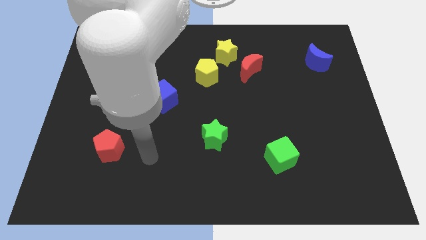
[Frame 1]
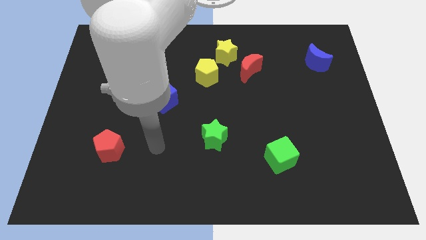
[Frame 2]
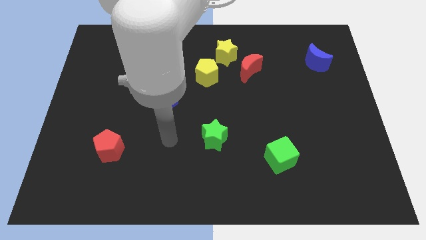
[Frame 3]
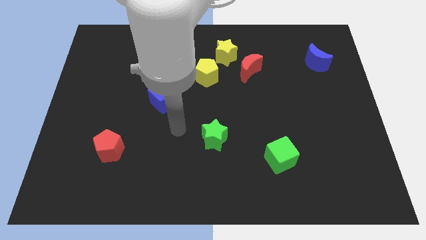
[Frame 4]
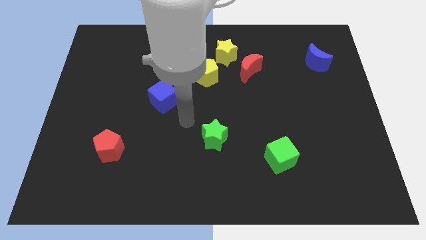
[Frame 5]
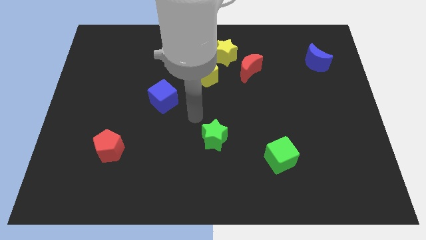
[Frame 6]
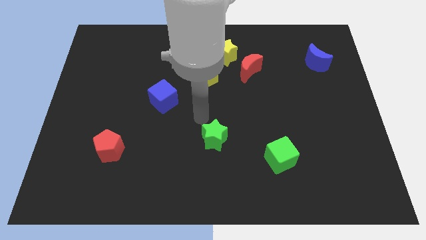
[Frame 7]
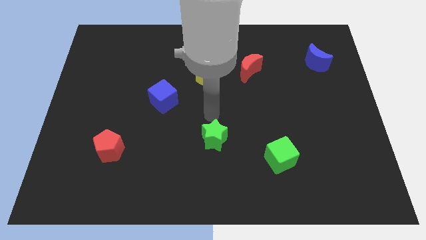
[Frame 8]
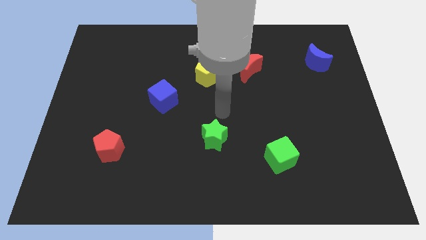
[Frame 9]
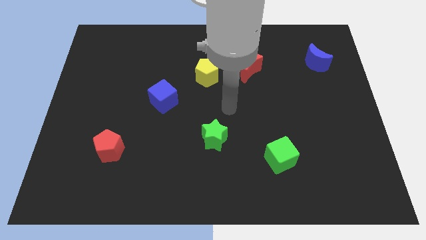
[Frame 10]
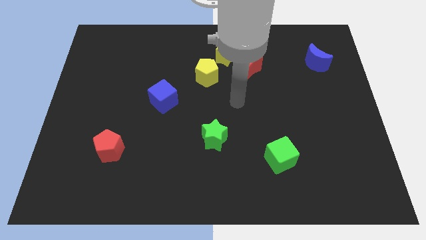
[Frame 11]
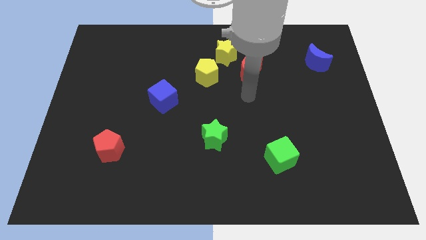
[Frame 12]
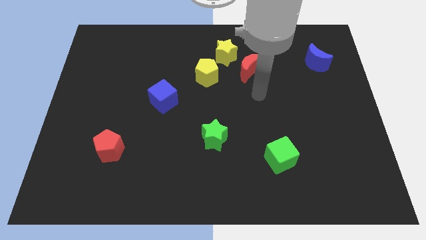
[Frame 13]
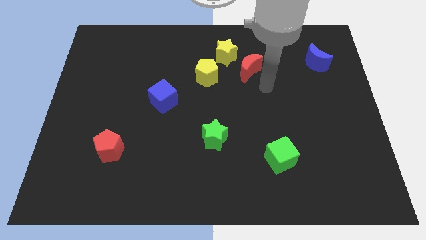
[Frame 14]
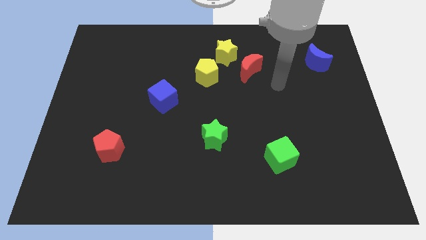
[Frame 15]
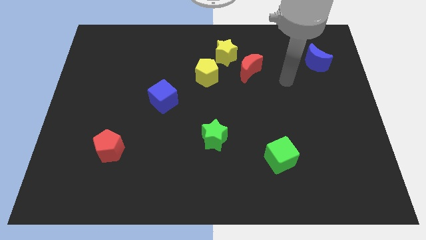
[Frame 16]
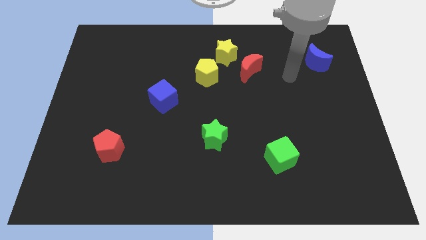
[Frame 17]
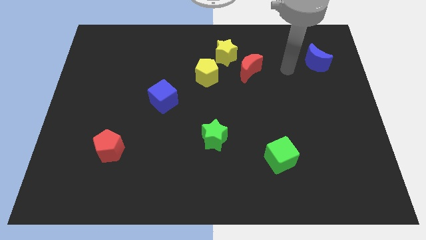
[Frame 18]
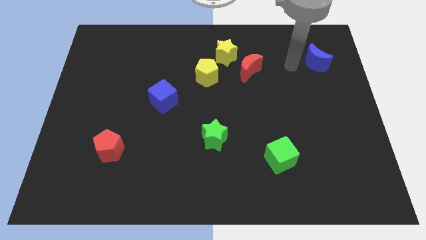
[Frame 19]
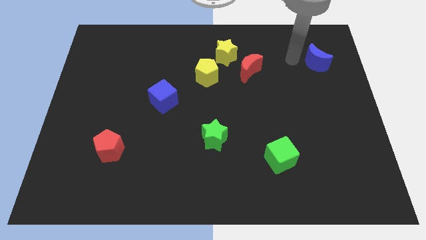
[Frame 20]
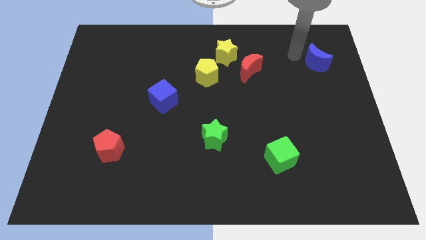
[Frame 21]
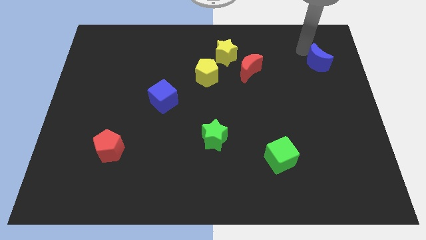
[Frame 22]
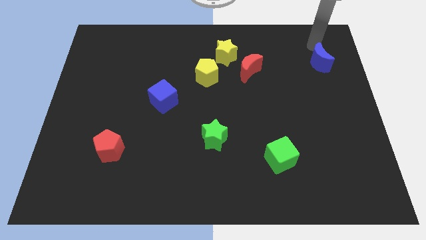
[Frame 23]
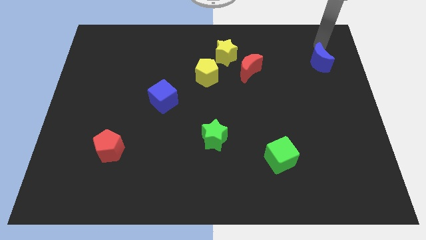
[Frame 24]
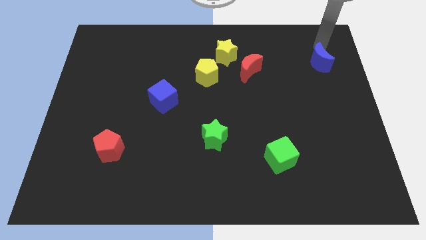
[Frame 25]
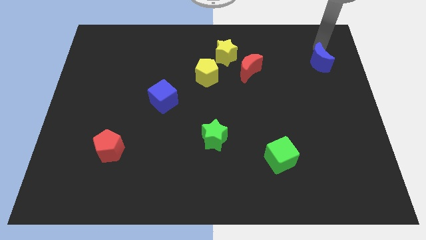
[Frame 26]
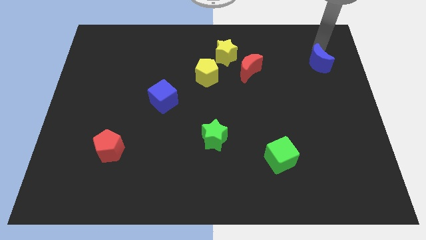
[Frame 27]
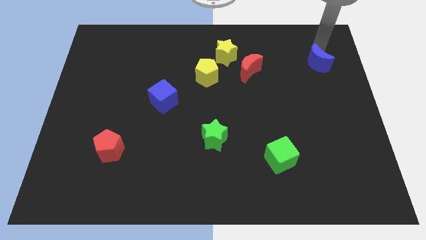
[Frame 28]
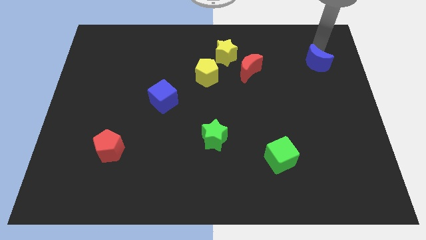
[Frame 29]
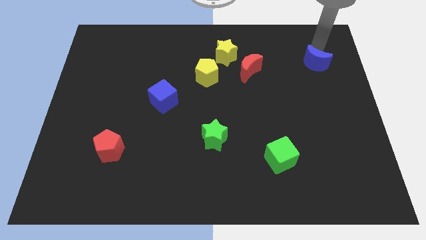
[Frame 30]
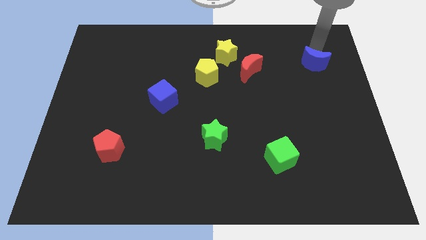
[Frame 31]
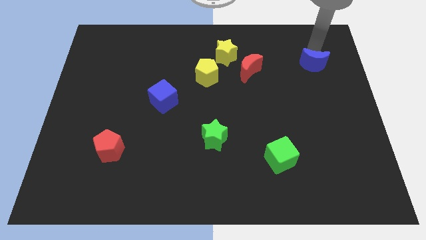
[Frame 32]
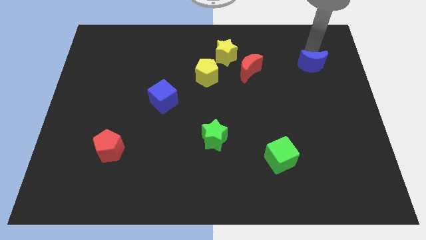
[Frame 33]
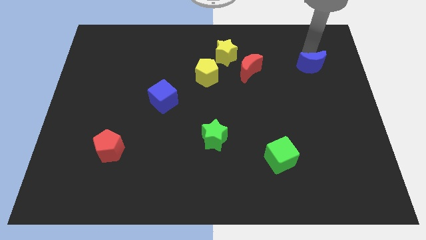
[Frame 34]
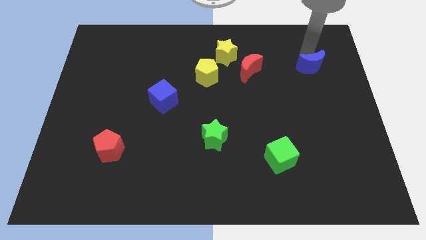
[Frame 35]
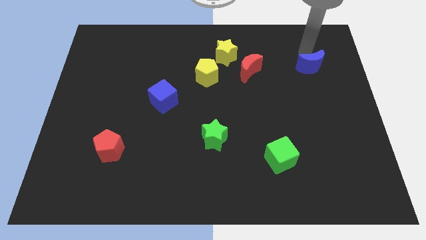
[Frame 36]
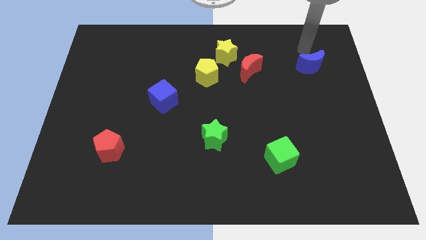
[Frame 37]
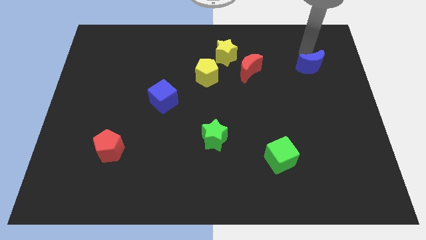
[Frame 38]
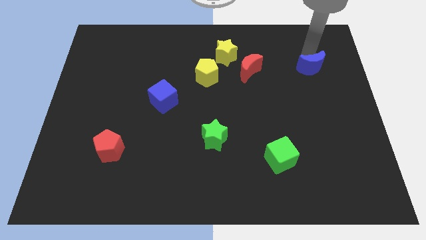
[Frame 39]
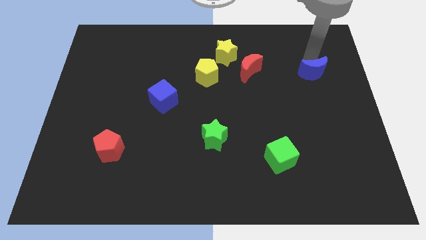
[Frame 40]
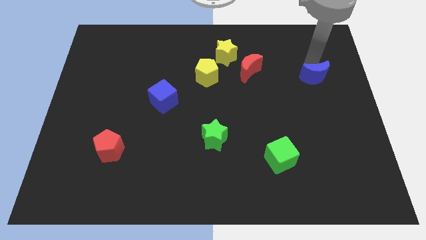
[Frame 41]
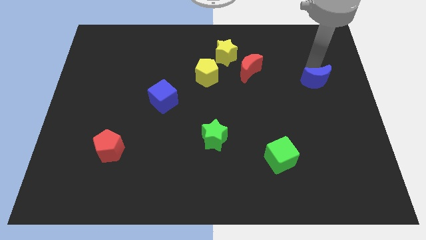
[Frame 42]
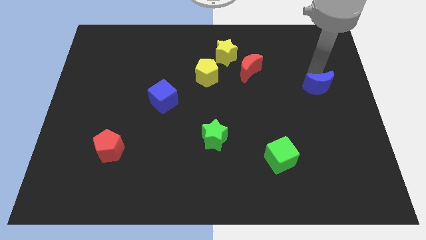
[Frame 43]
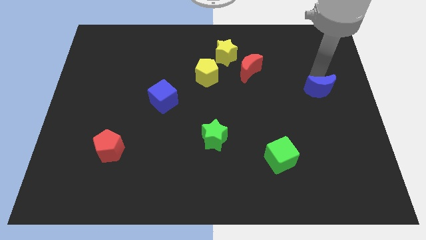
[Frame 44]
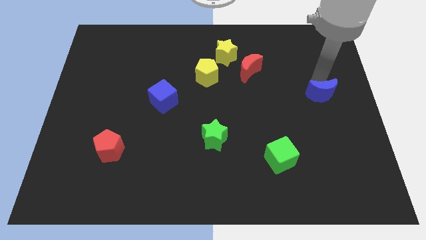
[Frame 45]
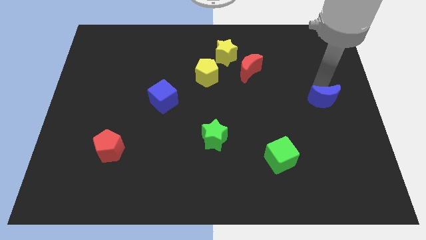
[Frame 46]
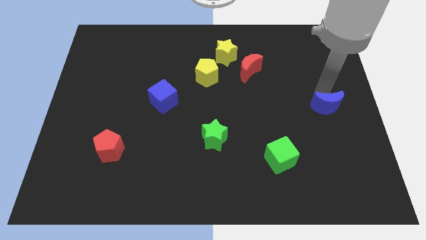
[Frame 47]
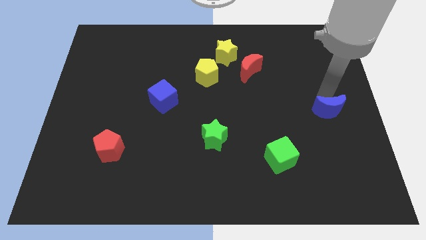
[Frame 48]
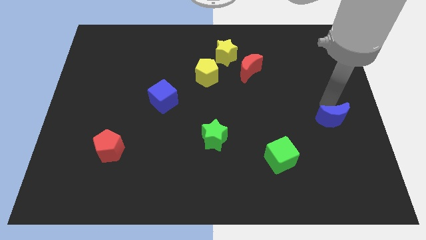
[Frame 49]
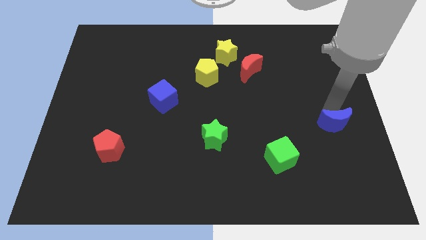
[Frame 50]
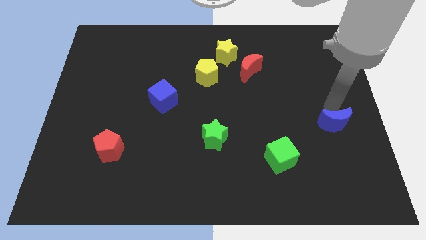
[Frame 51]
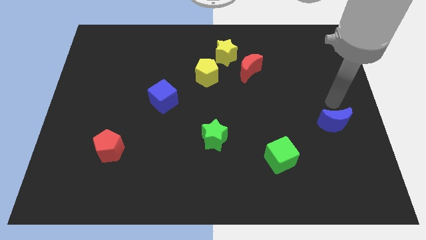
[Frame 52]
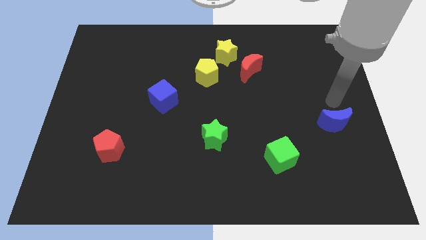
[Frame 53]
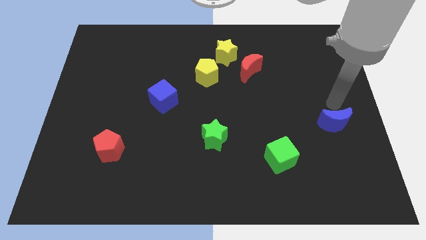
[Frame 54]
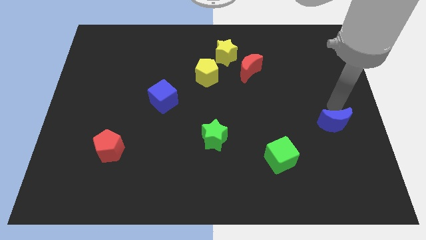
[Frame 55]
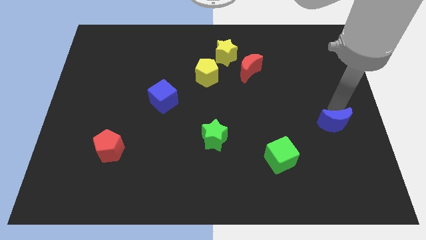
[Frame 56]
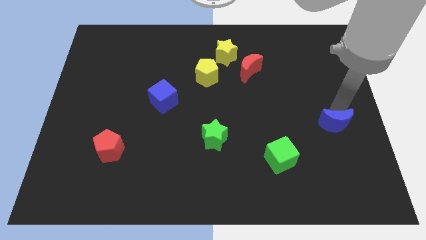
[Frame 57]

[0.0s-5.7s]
push the blue moon down

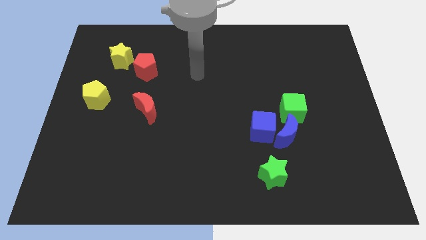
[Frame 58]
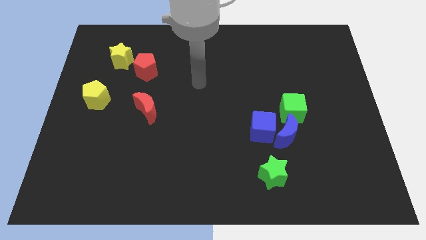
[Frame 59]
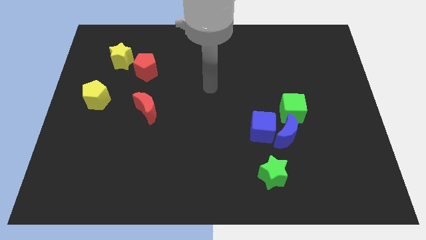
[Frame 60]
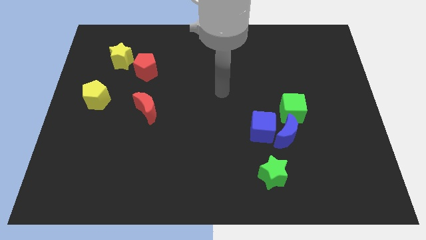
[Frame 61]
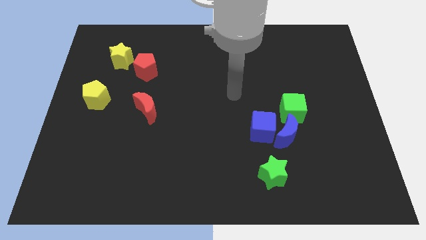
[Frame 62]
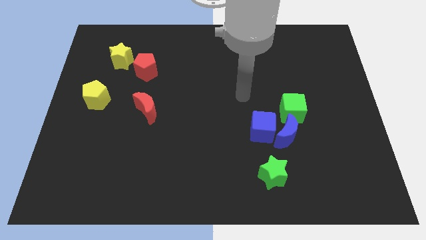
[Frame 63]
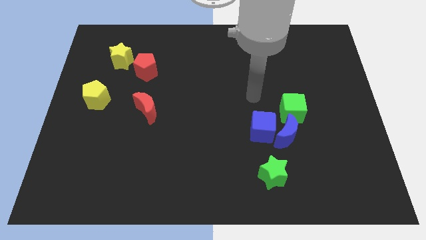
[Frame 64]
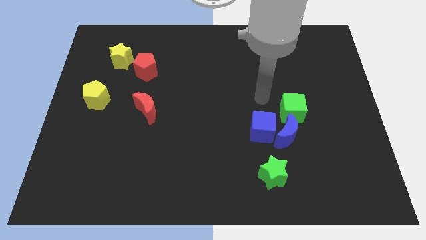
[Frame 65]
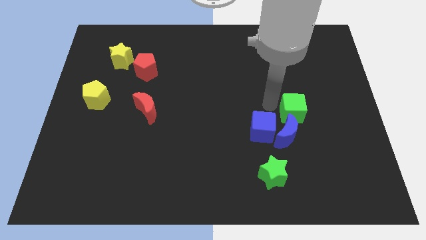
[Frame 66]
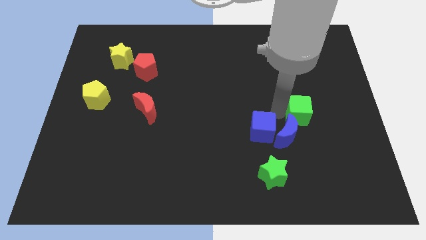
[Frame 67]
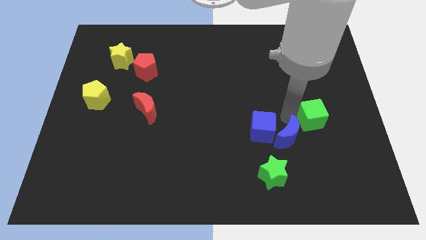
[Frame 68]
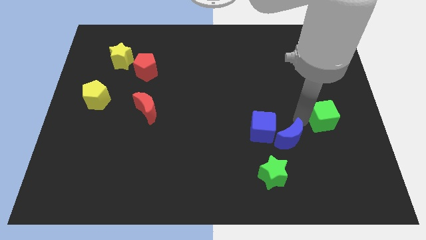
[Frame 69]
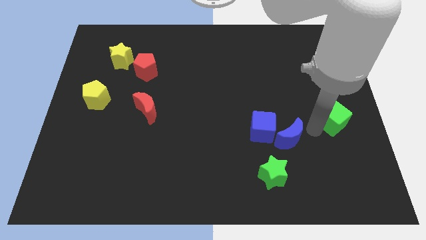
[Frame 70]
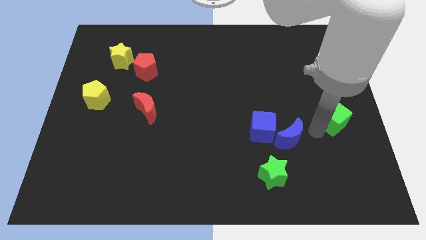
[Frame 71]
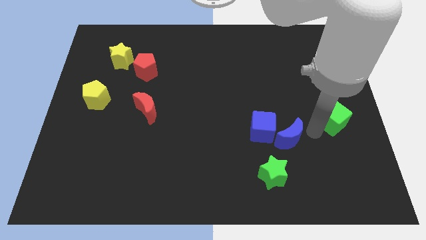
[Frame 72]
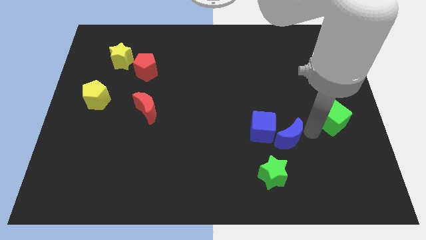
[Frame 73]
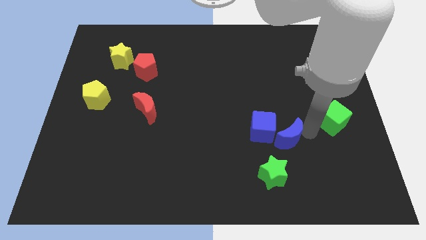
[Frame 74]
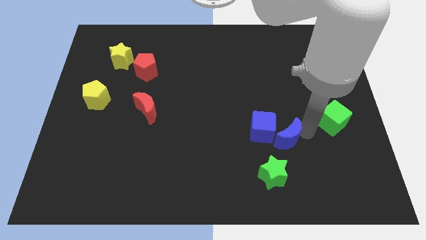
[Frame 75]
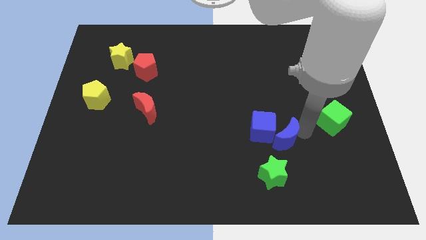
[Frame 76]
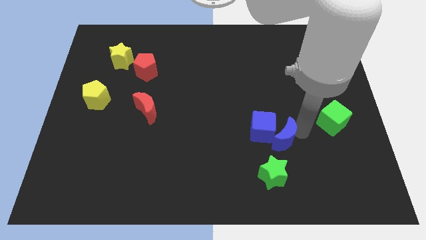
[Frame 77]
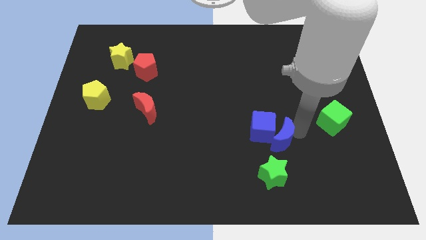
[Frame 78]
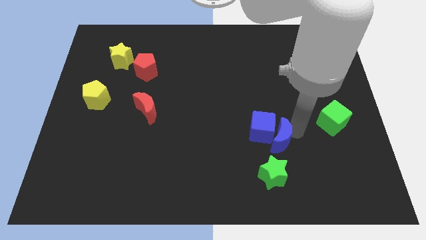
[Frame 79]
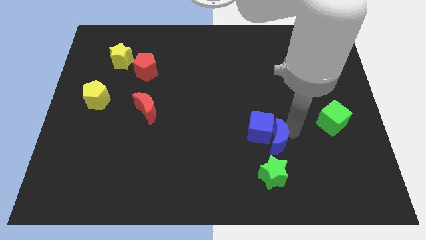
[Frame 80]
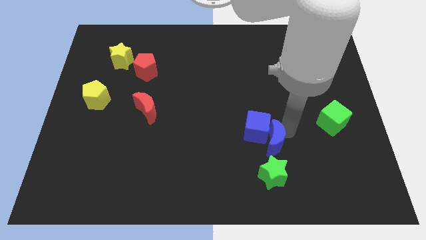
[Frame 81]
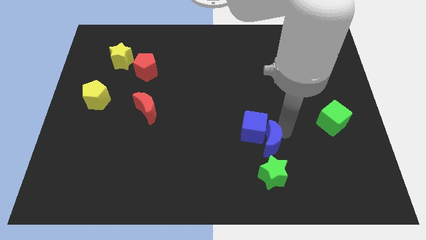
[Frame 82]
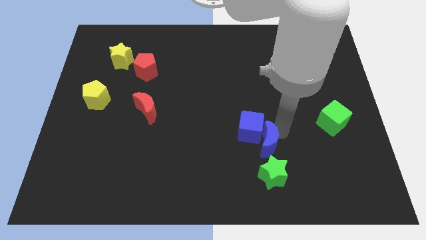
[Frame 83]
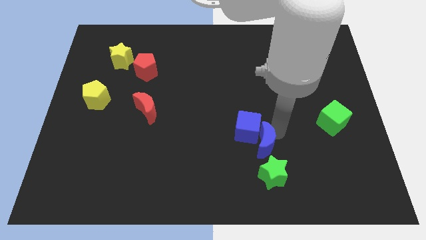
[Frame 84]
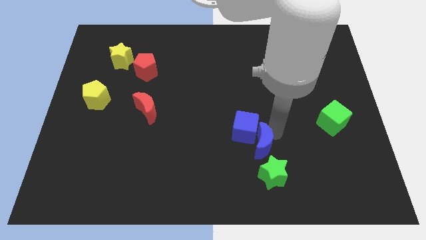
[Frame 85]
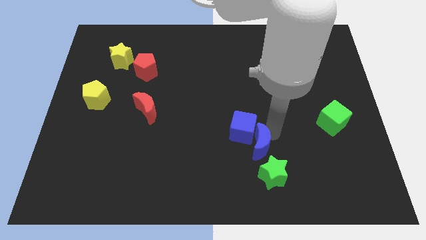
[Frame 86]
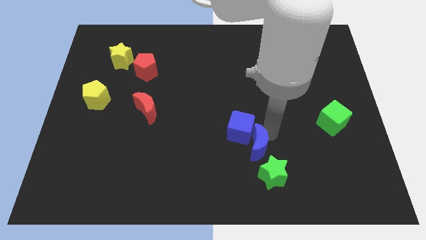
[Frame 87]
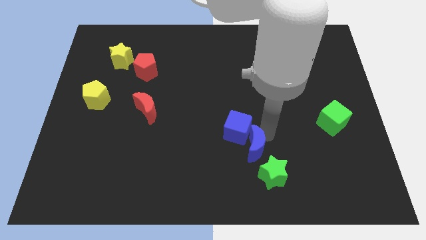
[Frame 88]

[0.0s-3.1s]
move the blue moon a little left
